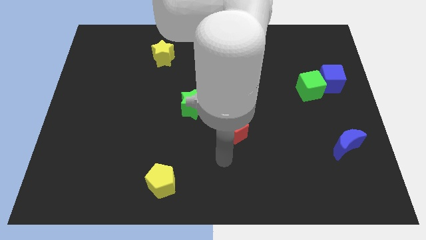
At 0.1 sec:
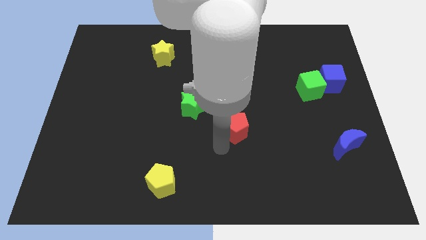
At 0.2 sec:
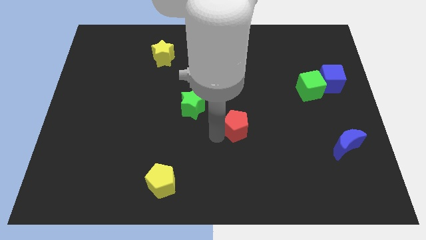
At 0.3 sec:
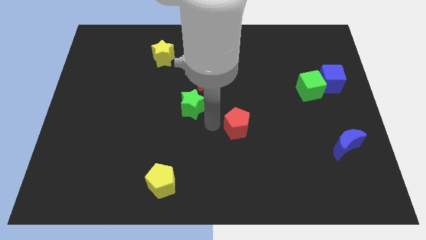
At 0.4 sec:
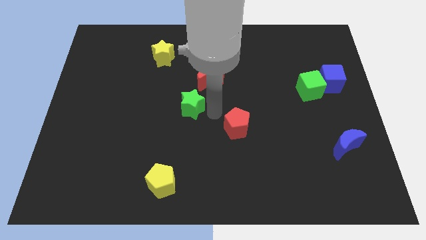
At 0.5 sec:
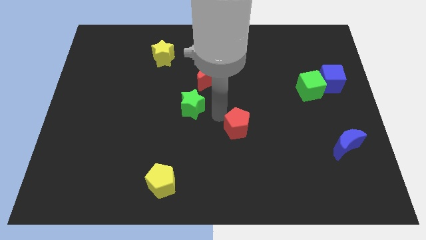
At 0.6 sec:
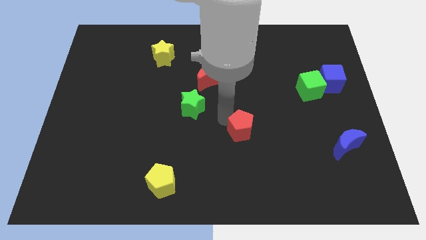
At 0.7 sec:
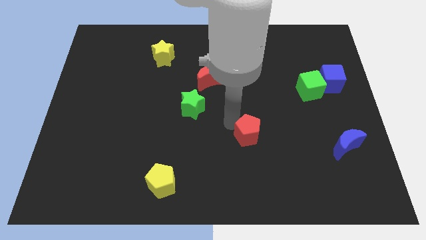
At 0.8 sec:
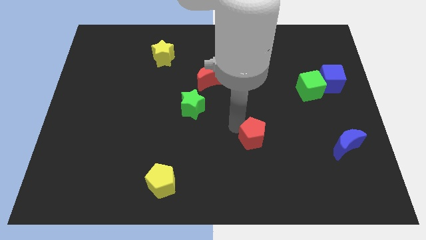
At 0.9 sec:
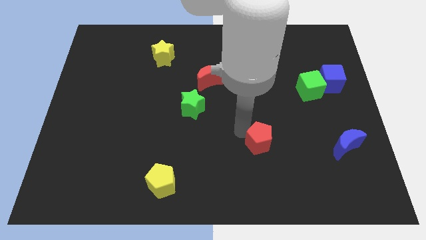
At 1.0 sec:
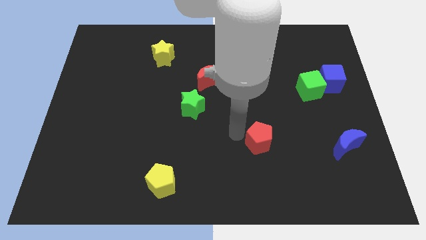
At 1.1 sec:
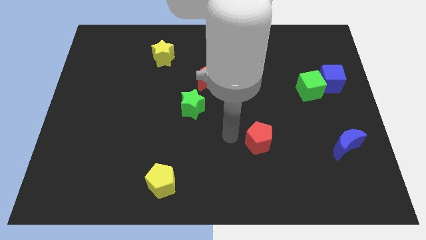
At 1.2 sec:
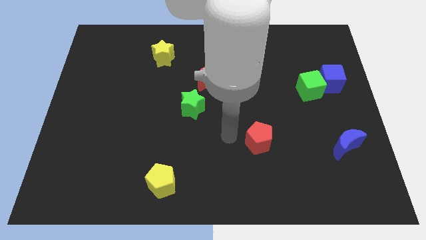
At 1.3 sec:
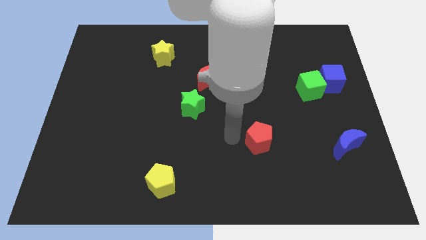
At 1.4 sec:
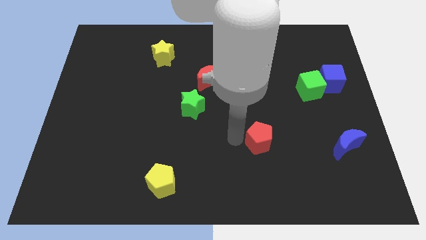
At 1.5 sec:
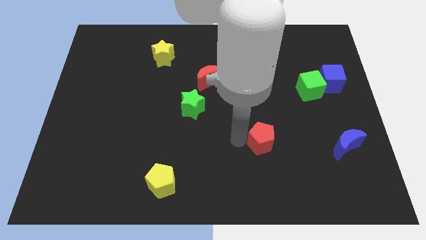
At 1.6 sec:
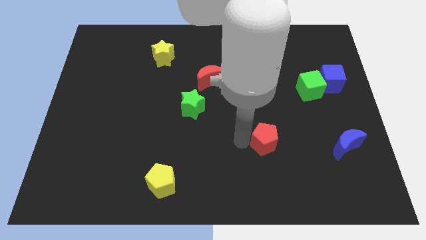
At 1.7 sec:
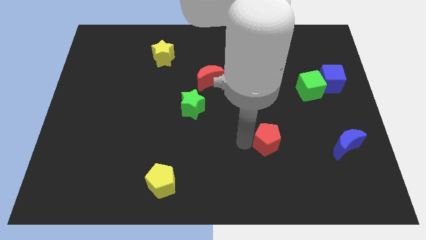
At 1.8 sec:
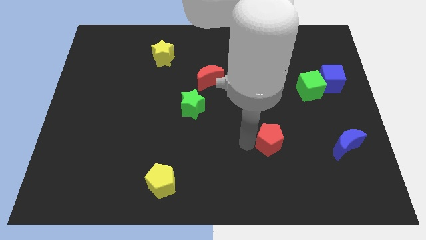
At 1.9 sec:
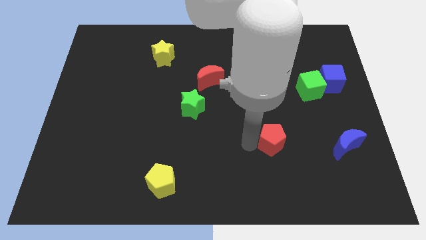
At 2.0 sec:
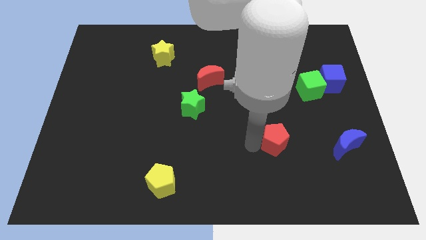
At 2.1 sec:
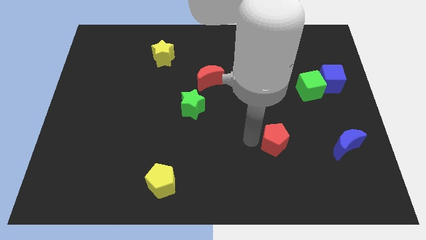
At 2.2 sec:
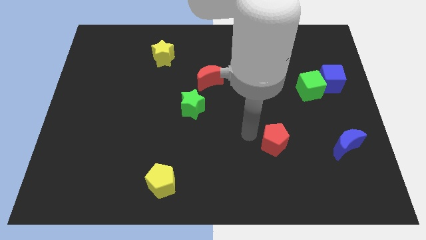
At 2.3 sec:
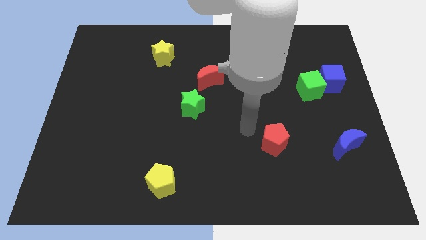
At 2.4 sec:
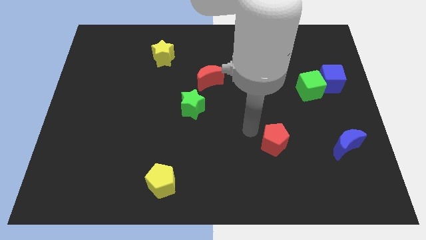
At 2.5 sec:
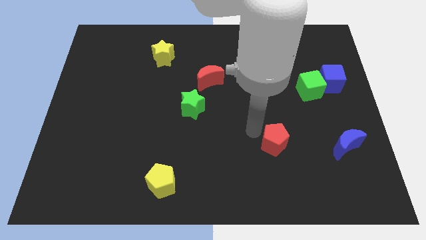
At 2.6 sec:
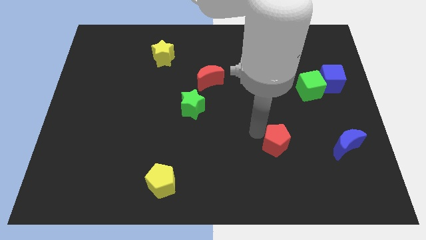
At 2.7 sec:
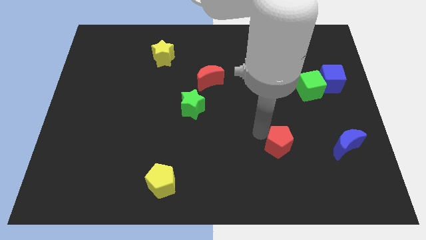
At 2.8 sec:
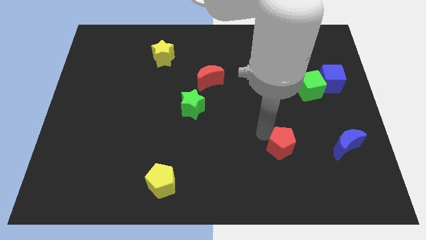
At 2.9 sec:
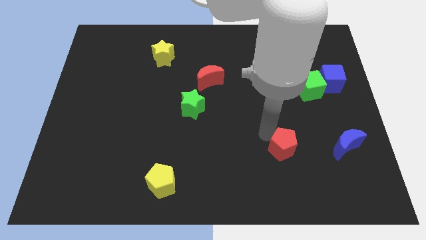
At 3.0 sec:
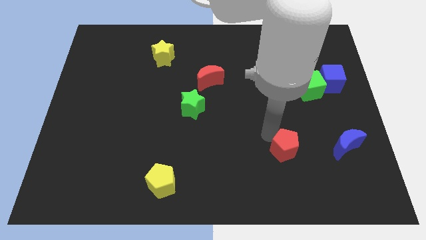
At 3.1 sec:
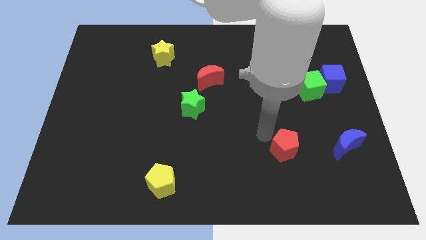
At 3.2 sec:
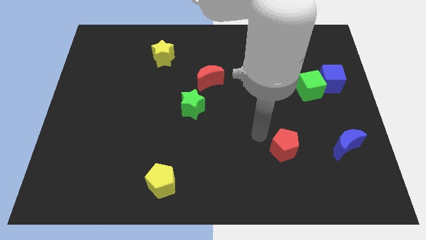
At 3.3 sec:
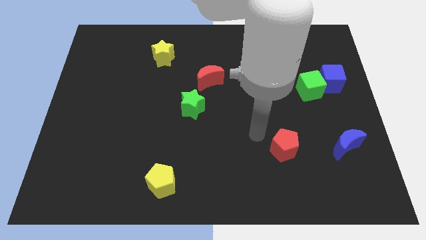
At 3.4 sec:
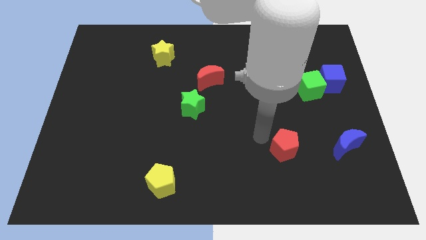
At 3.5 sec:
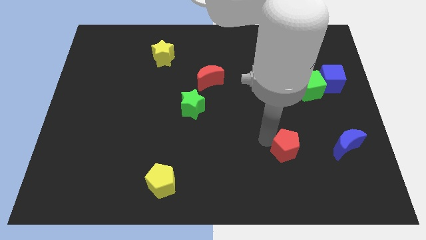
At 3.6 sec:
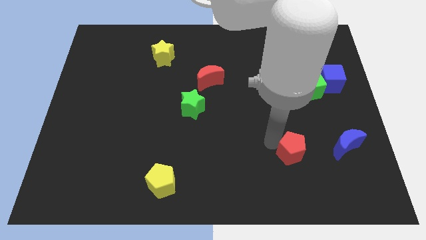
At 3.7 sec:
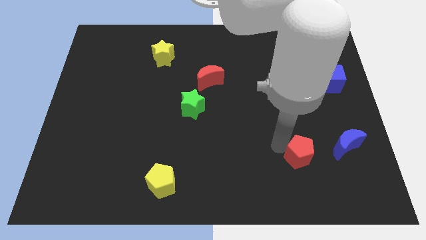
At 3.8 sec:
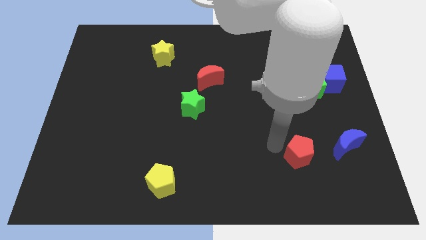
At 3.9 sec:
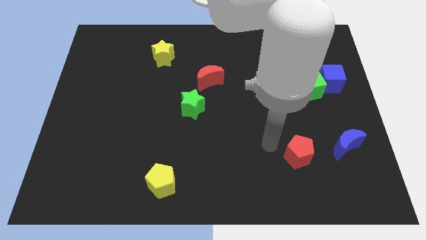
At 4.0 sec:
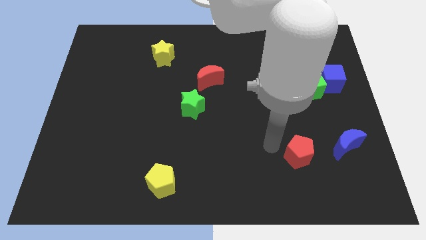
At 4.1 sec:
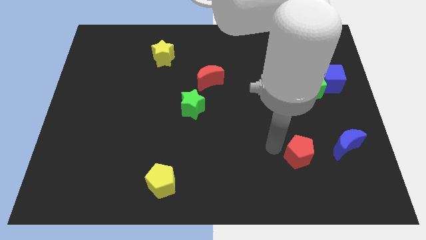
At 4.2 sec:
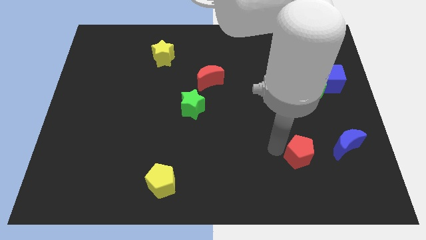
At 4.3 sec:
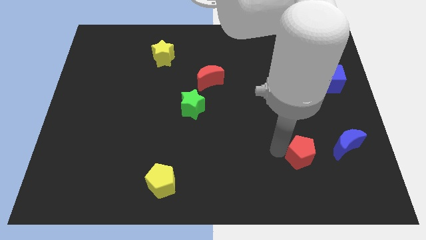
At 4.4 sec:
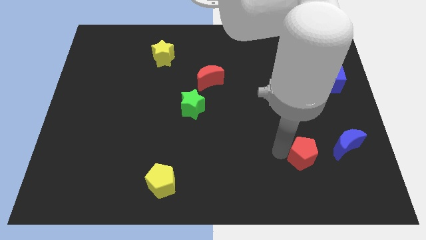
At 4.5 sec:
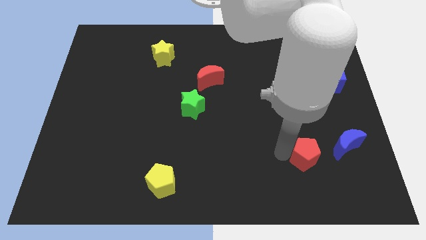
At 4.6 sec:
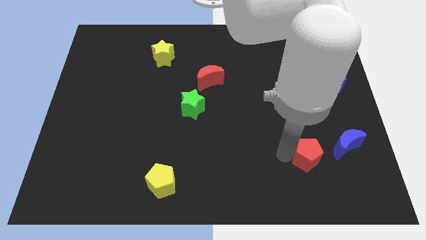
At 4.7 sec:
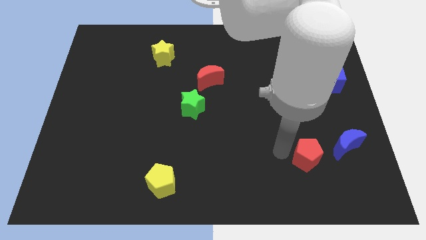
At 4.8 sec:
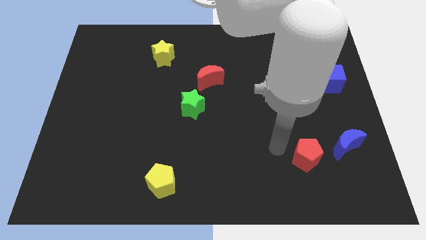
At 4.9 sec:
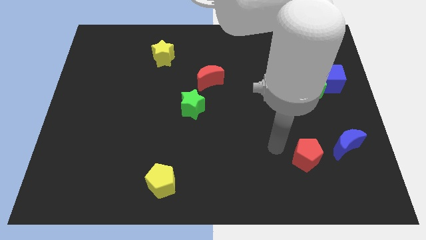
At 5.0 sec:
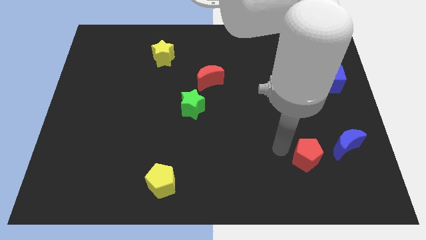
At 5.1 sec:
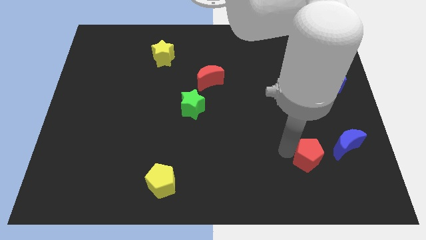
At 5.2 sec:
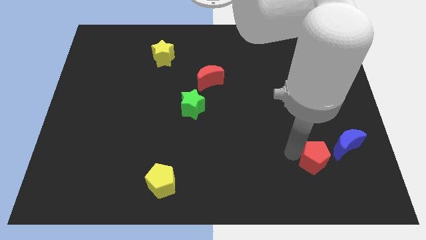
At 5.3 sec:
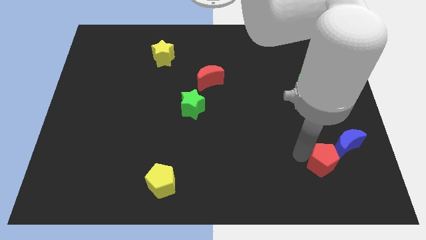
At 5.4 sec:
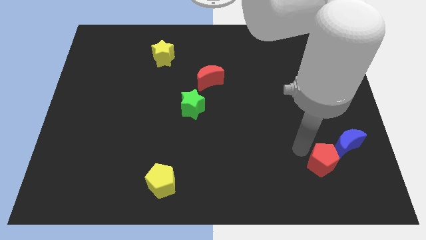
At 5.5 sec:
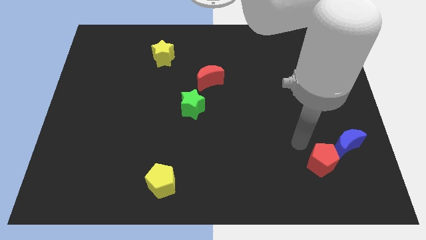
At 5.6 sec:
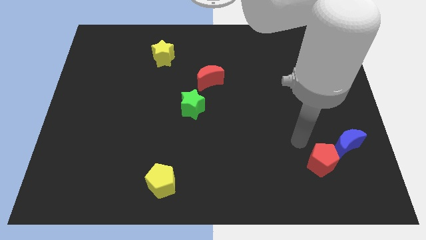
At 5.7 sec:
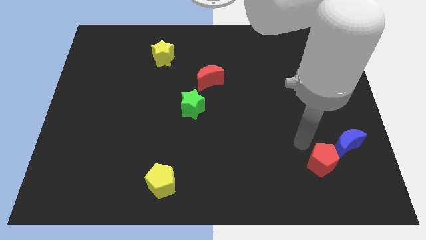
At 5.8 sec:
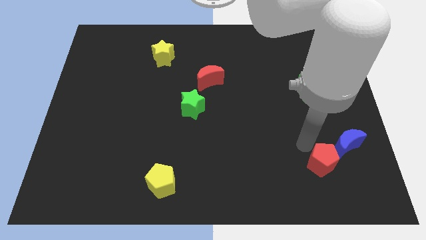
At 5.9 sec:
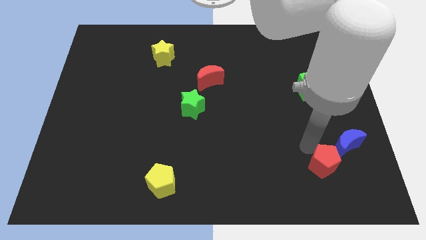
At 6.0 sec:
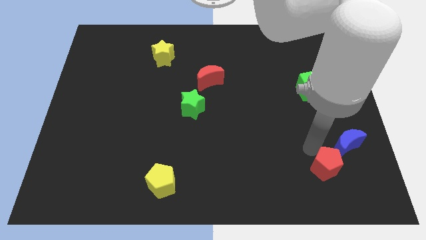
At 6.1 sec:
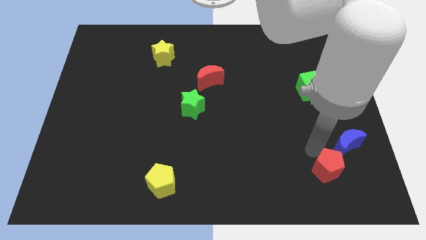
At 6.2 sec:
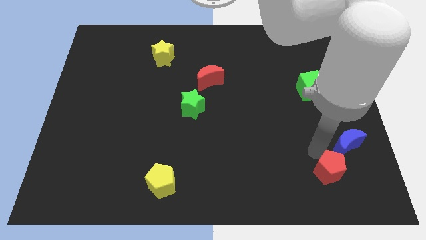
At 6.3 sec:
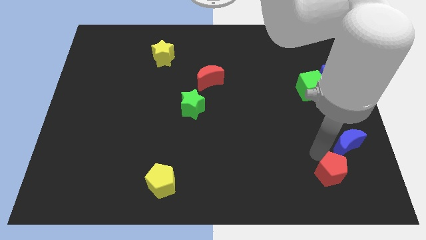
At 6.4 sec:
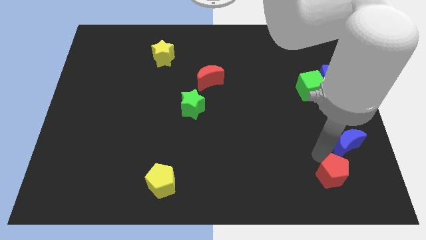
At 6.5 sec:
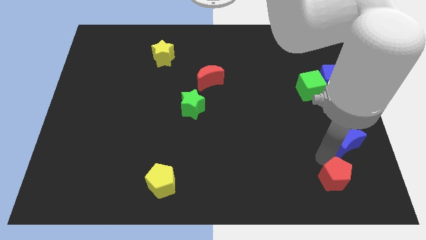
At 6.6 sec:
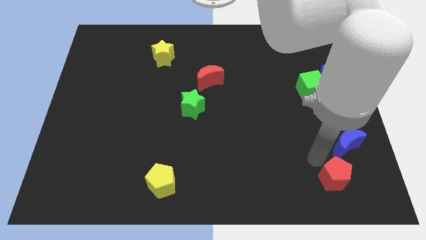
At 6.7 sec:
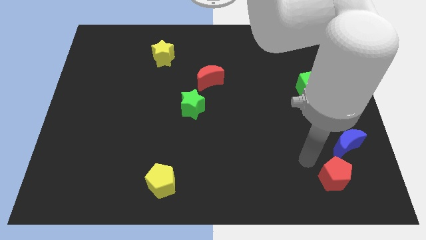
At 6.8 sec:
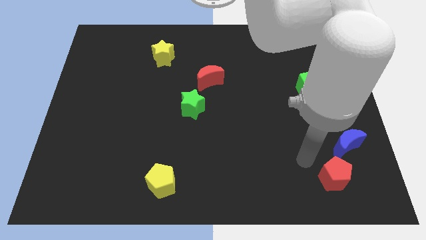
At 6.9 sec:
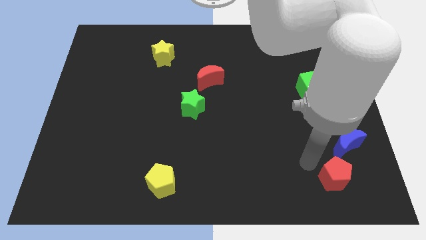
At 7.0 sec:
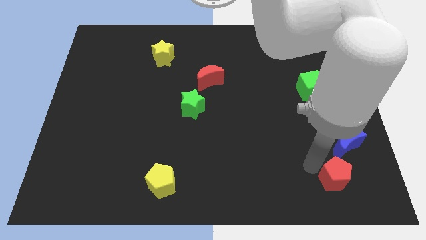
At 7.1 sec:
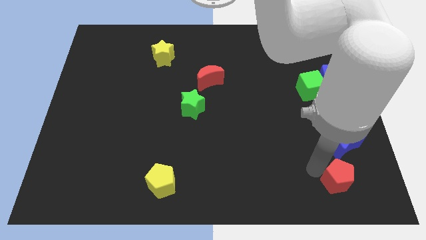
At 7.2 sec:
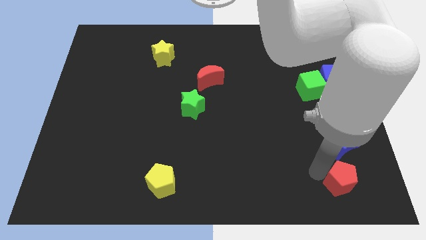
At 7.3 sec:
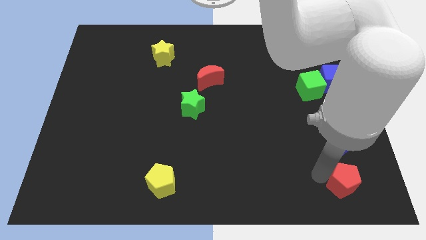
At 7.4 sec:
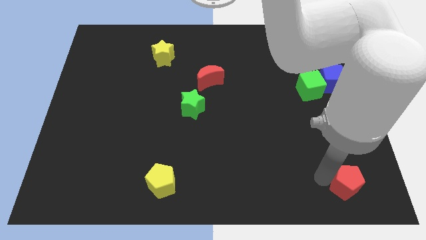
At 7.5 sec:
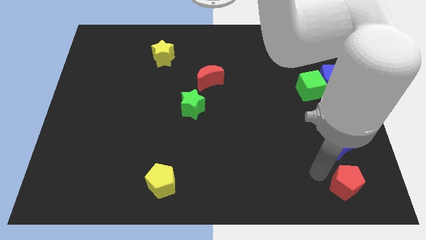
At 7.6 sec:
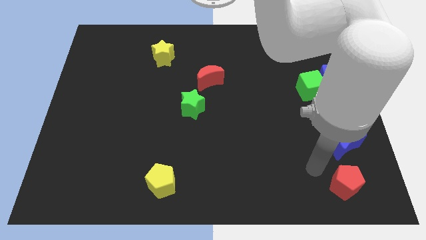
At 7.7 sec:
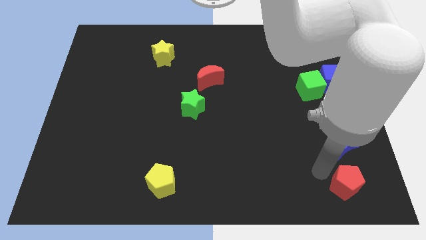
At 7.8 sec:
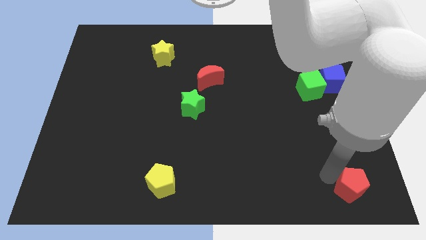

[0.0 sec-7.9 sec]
push the red pentagon to the bottom right corner
